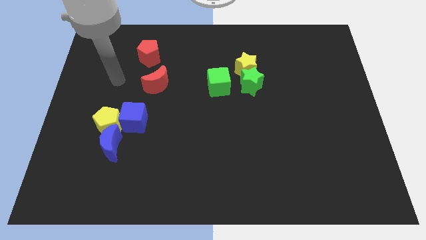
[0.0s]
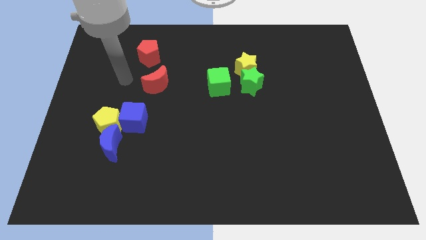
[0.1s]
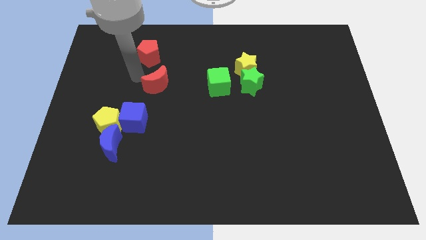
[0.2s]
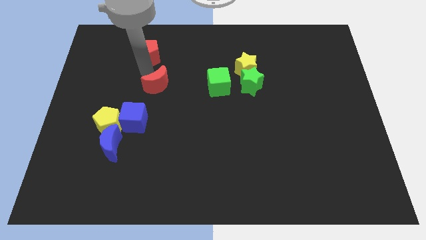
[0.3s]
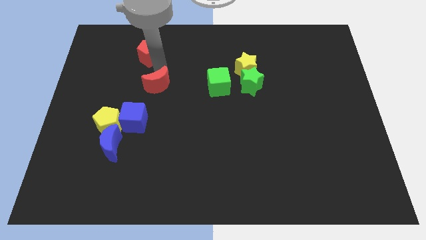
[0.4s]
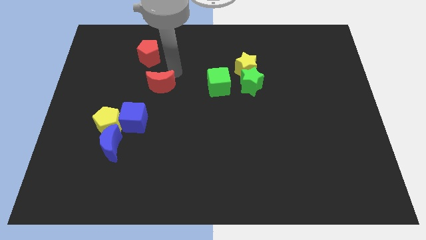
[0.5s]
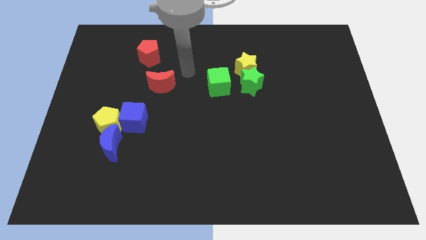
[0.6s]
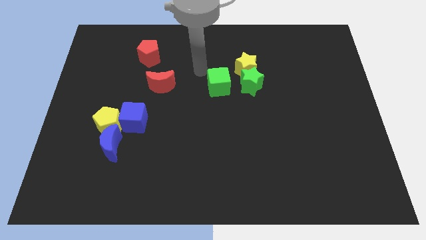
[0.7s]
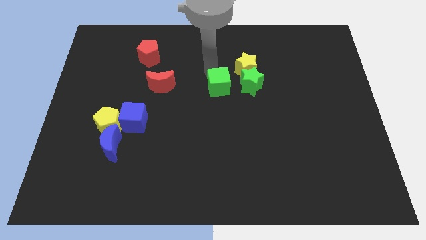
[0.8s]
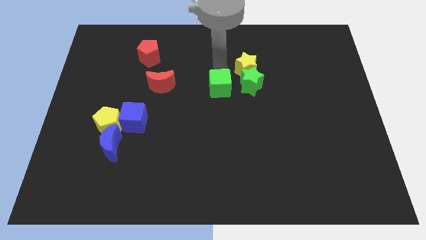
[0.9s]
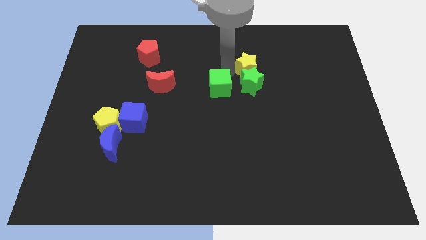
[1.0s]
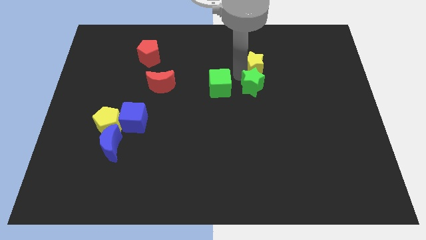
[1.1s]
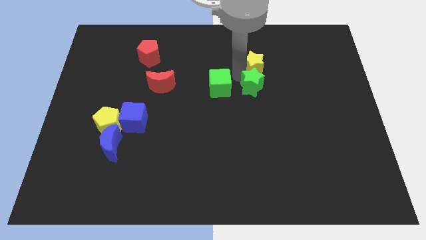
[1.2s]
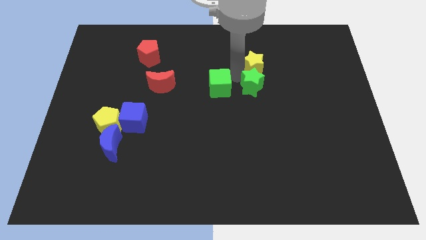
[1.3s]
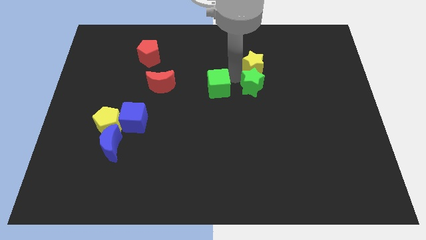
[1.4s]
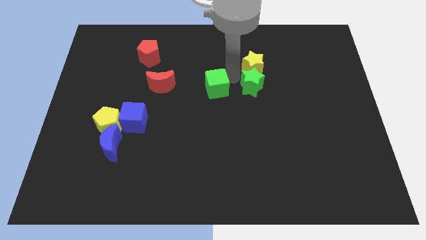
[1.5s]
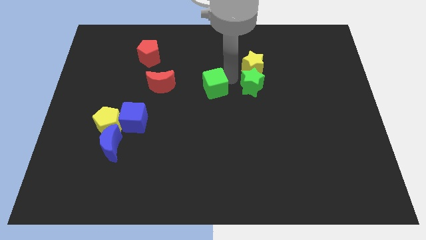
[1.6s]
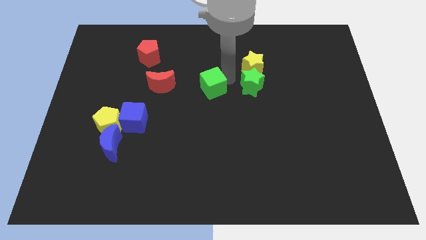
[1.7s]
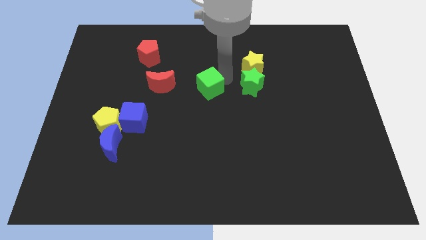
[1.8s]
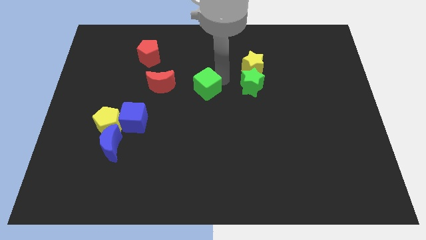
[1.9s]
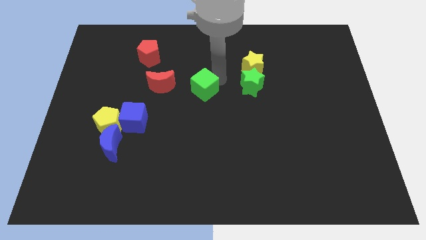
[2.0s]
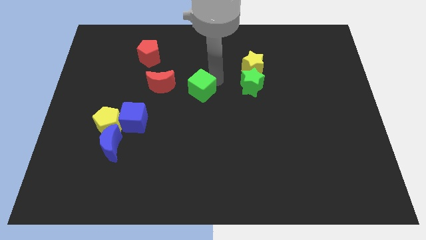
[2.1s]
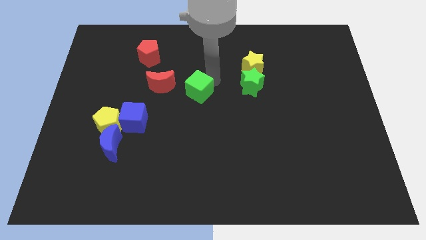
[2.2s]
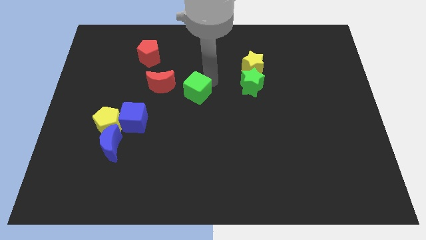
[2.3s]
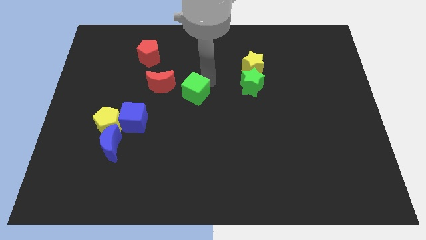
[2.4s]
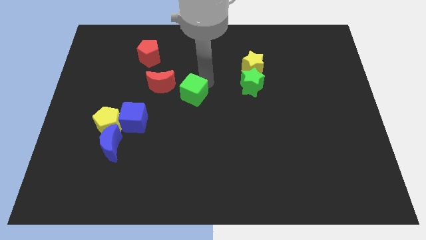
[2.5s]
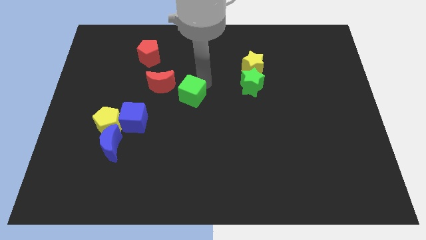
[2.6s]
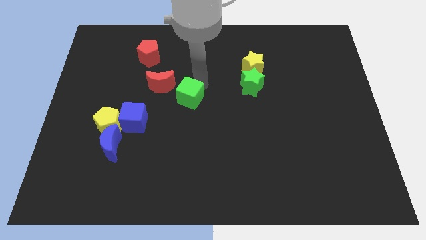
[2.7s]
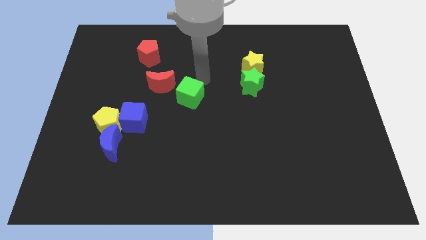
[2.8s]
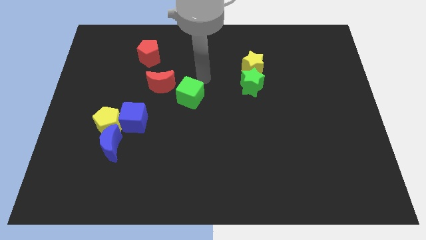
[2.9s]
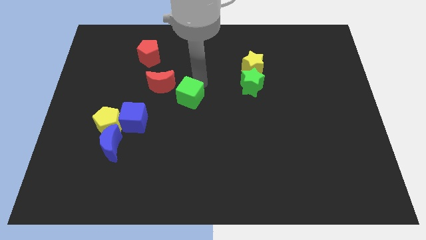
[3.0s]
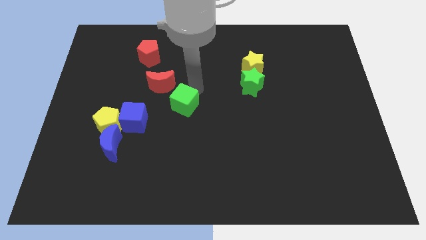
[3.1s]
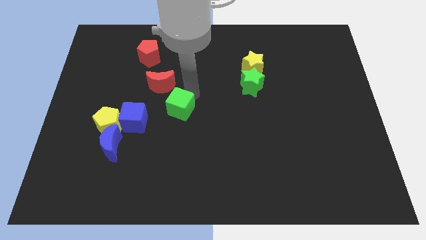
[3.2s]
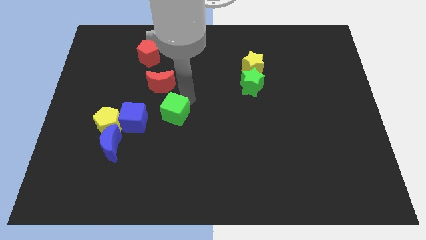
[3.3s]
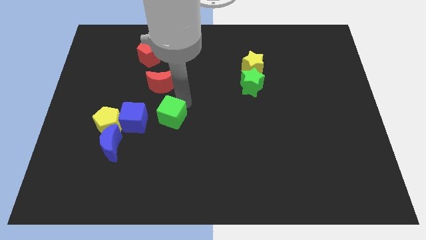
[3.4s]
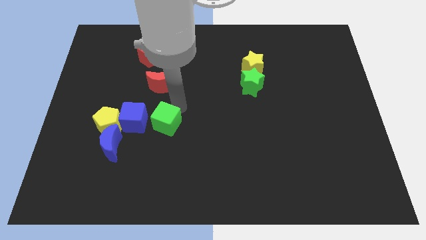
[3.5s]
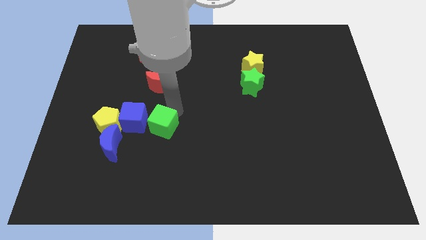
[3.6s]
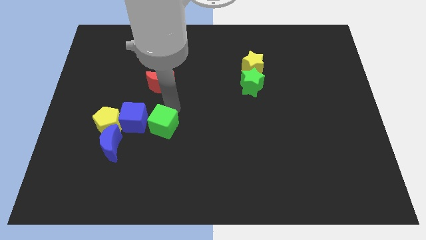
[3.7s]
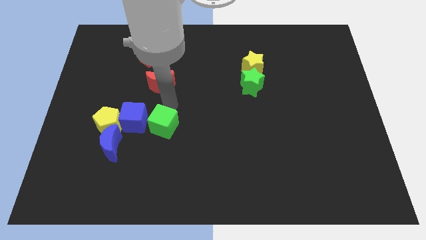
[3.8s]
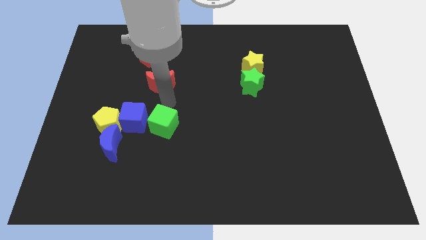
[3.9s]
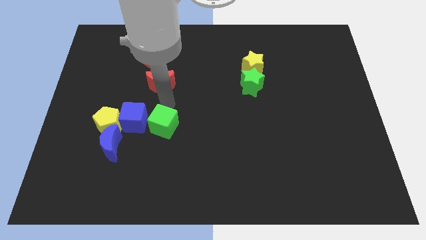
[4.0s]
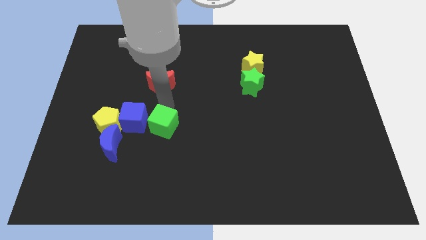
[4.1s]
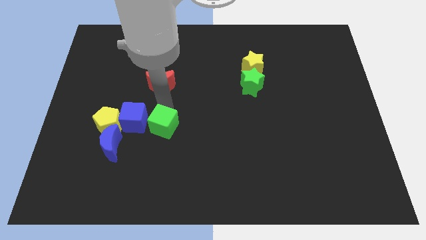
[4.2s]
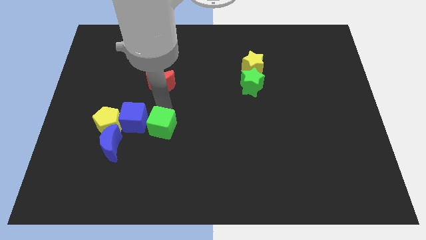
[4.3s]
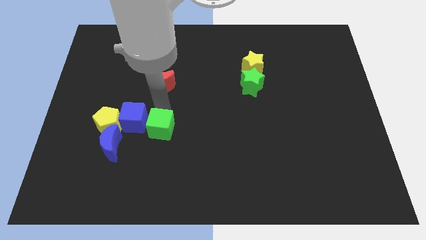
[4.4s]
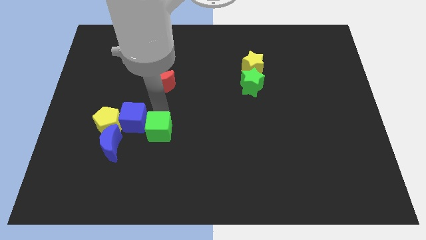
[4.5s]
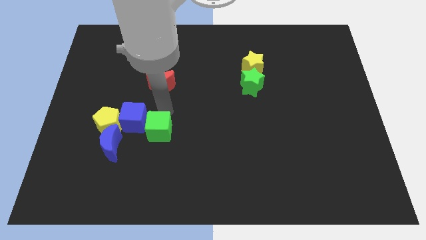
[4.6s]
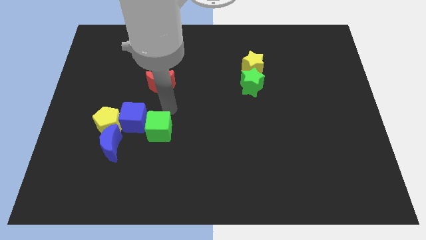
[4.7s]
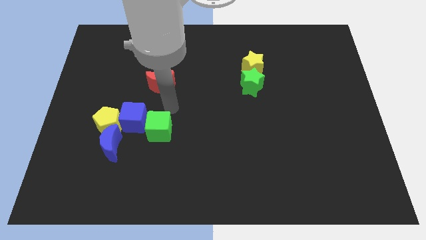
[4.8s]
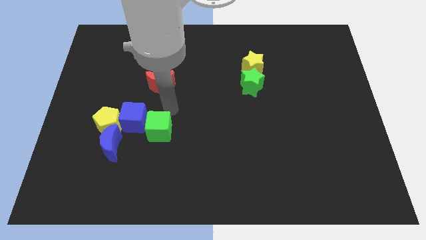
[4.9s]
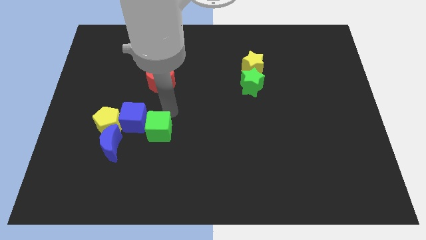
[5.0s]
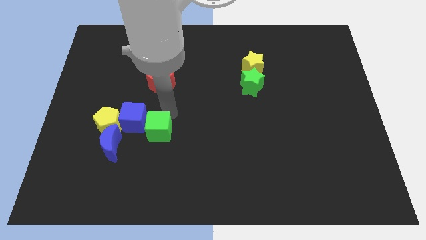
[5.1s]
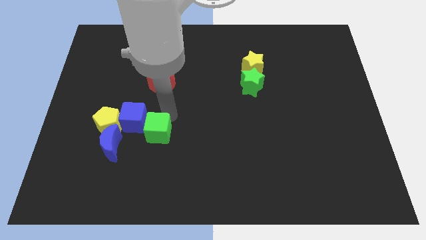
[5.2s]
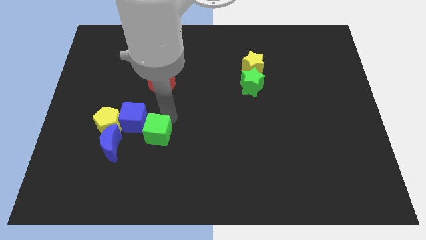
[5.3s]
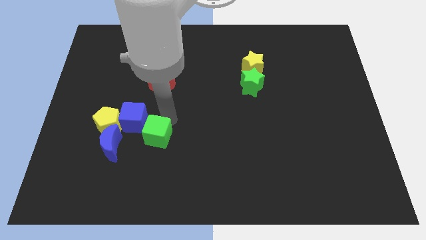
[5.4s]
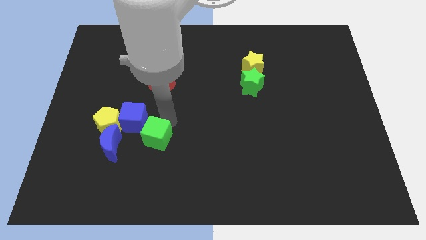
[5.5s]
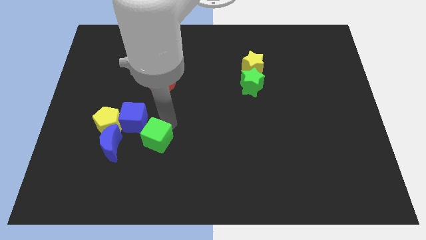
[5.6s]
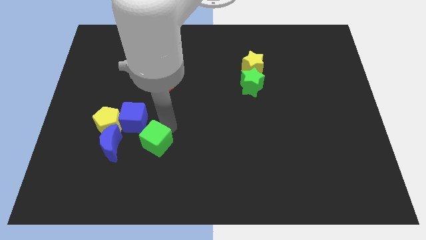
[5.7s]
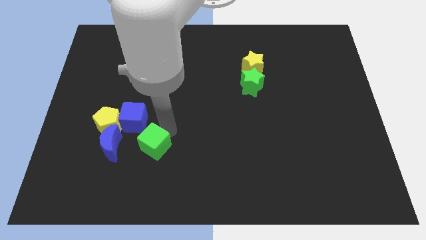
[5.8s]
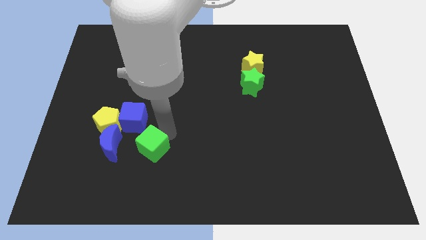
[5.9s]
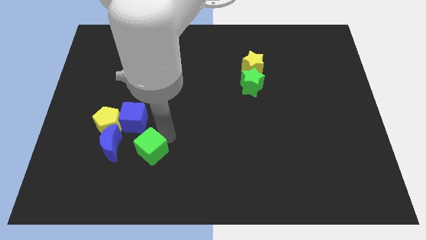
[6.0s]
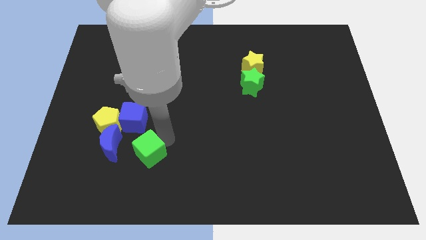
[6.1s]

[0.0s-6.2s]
slide the green cube to the bottom right side of the blue moon
